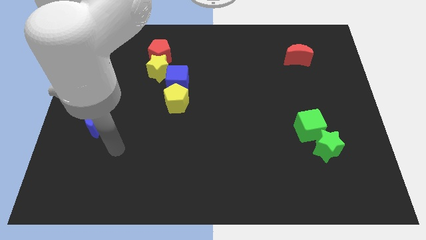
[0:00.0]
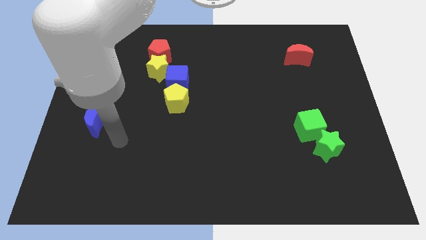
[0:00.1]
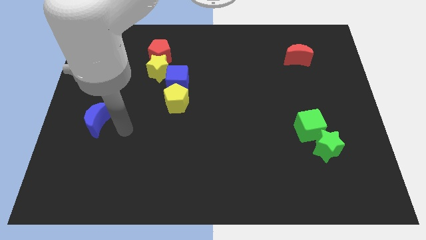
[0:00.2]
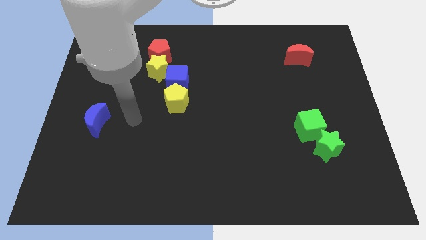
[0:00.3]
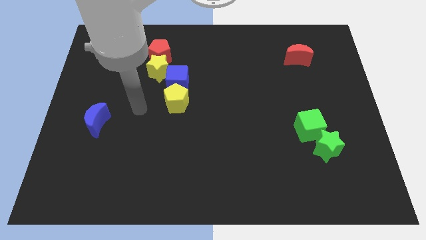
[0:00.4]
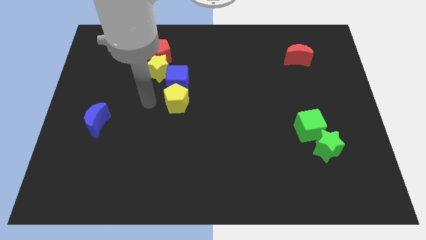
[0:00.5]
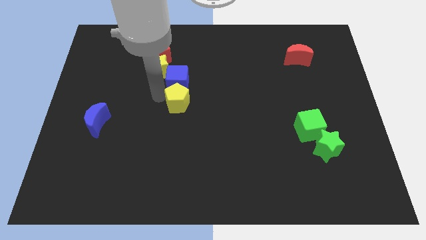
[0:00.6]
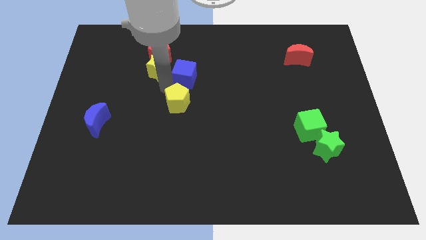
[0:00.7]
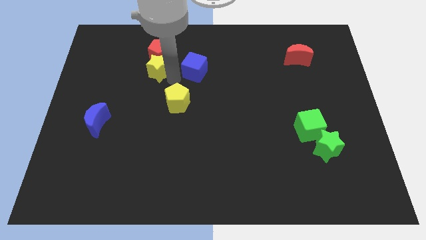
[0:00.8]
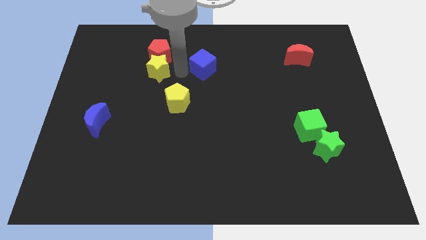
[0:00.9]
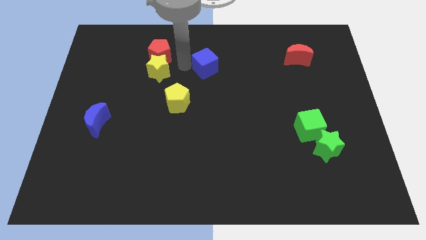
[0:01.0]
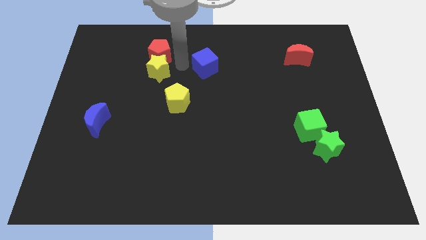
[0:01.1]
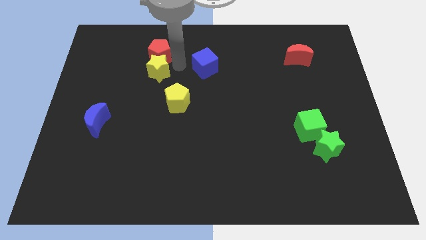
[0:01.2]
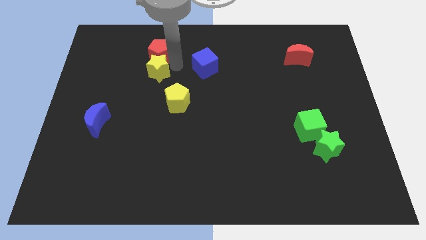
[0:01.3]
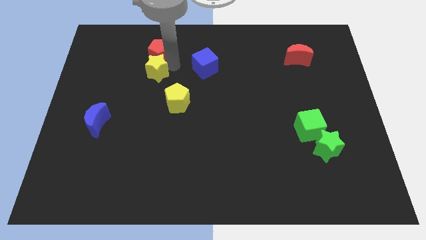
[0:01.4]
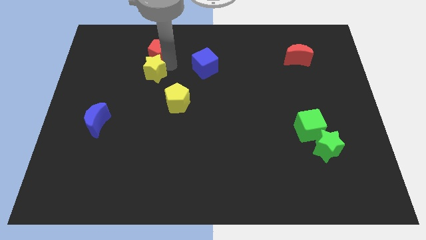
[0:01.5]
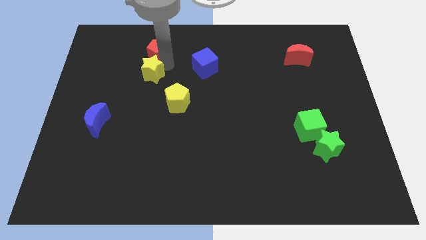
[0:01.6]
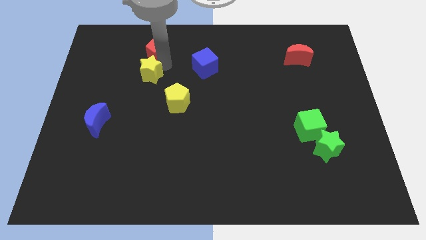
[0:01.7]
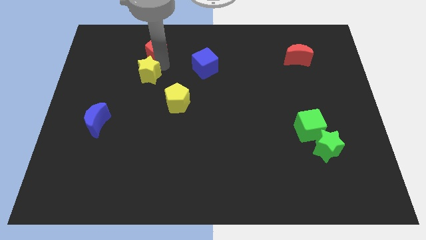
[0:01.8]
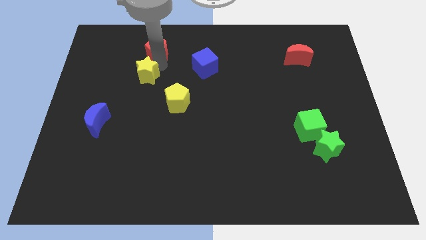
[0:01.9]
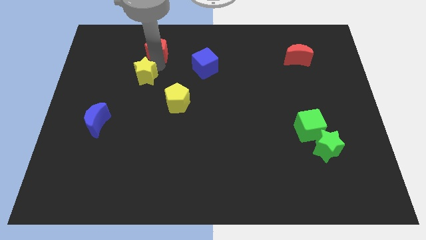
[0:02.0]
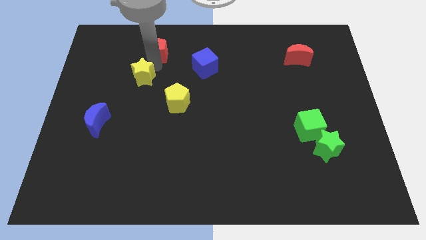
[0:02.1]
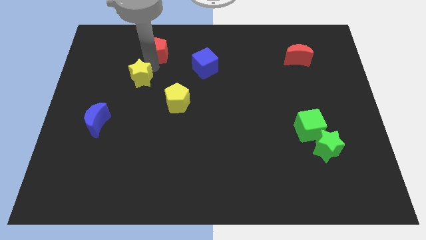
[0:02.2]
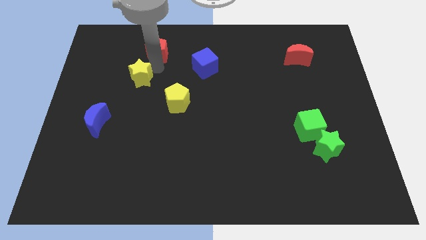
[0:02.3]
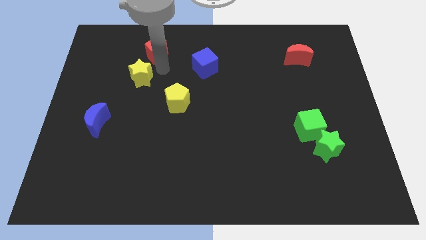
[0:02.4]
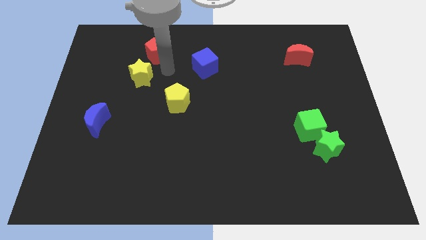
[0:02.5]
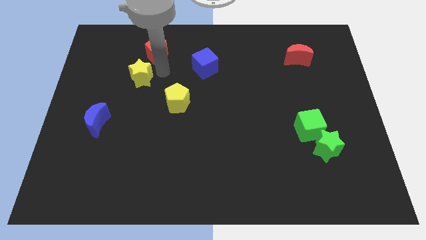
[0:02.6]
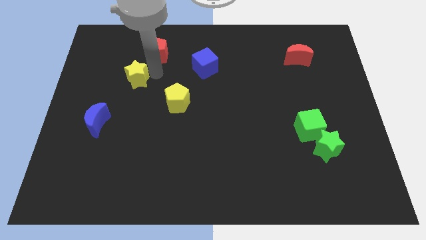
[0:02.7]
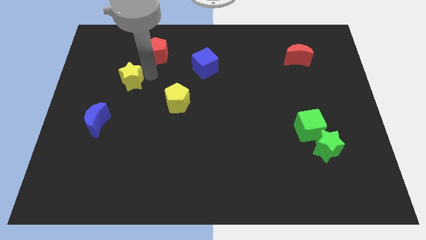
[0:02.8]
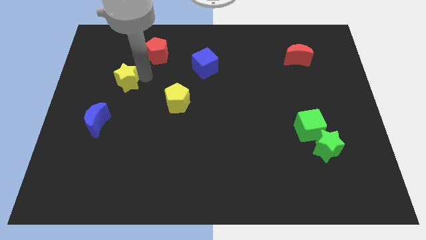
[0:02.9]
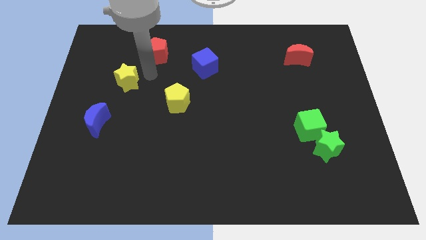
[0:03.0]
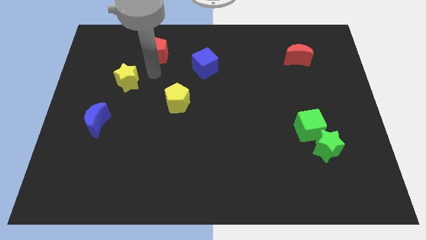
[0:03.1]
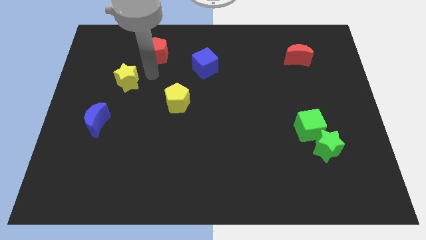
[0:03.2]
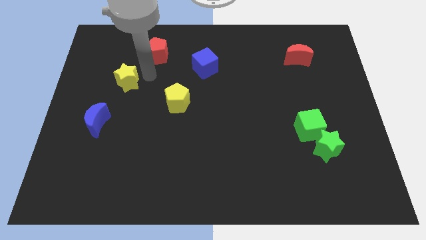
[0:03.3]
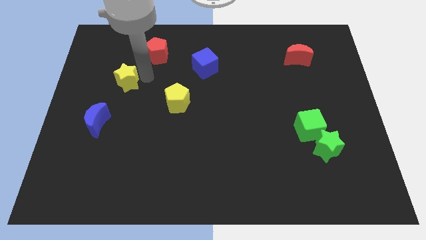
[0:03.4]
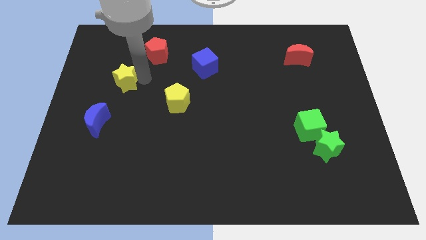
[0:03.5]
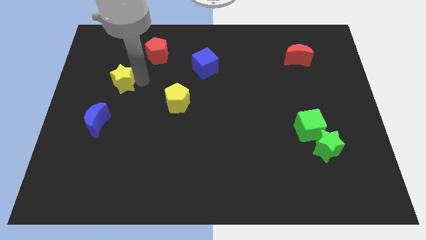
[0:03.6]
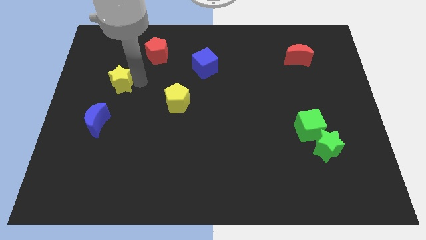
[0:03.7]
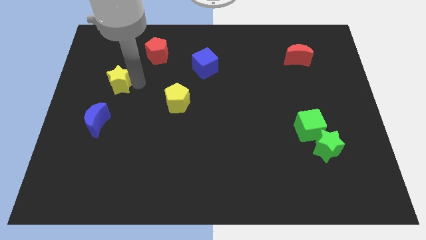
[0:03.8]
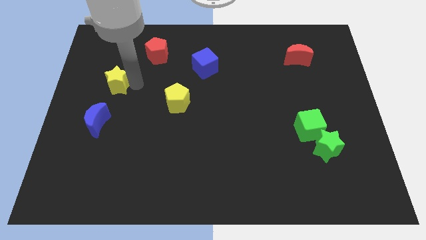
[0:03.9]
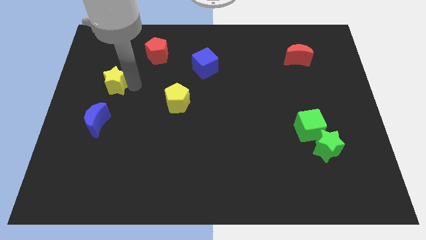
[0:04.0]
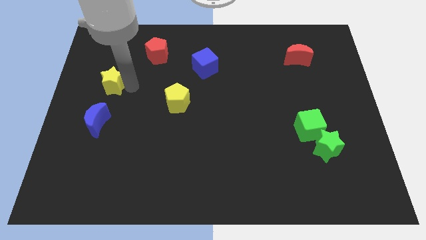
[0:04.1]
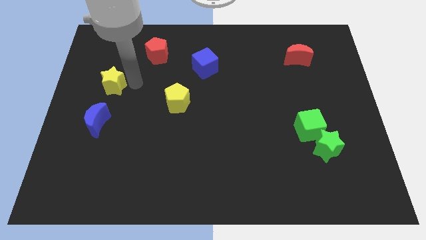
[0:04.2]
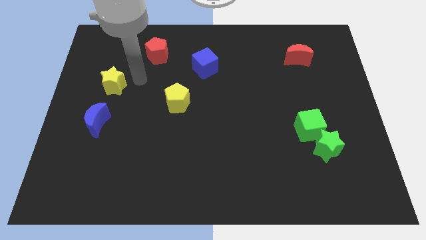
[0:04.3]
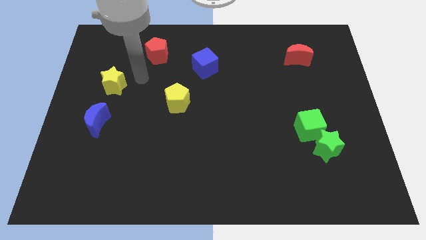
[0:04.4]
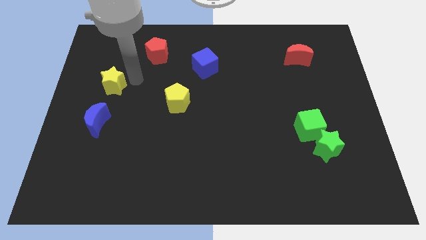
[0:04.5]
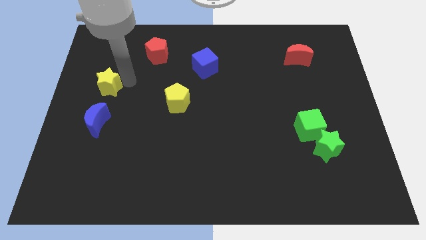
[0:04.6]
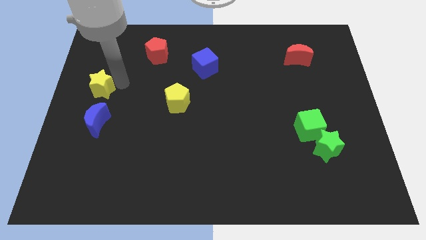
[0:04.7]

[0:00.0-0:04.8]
slide the yellow star to the left side of the board

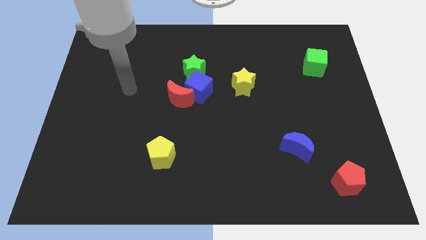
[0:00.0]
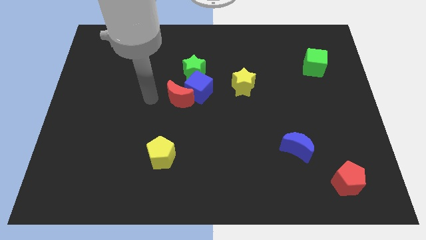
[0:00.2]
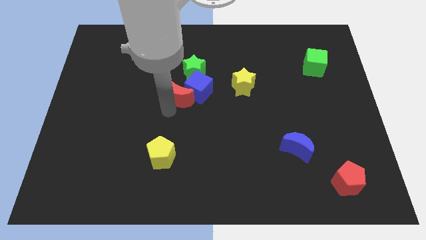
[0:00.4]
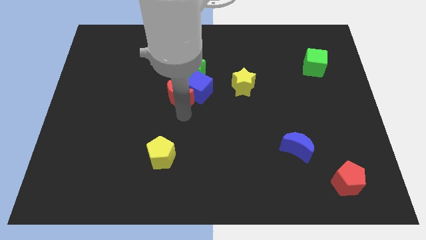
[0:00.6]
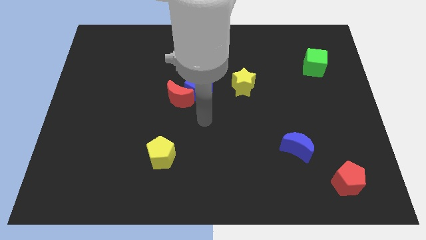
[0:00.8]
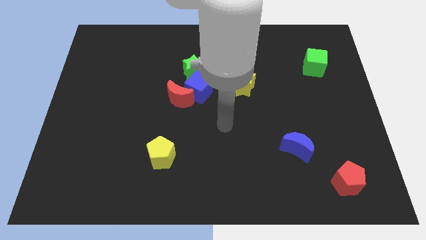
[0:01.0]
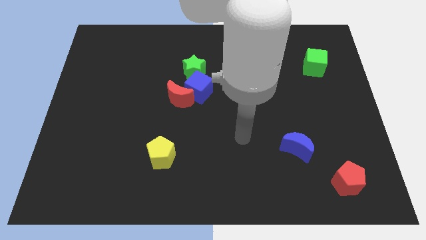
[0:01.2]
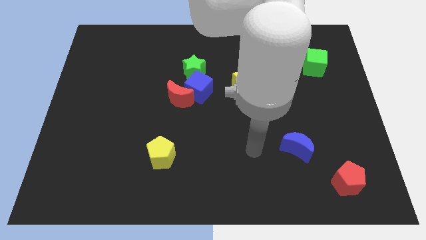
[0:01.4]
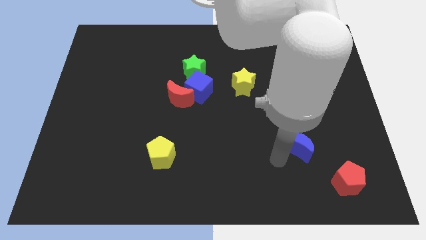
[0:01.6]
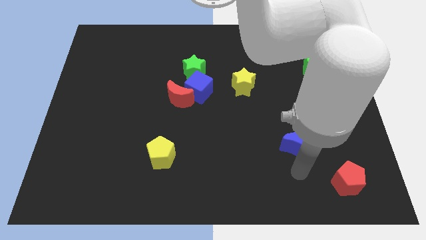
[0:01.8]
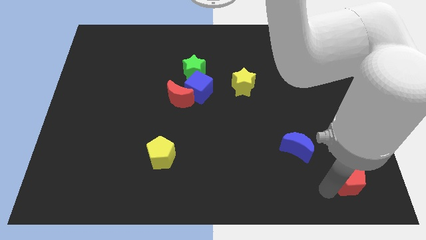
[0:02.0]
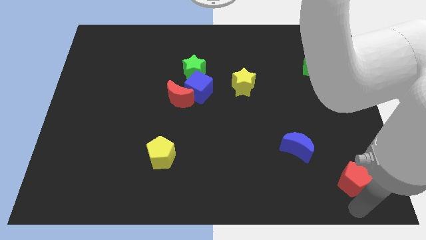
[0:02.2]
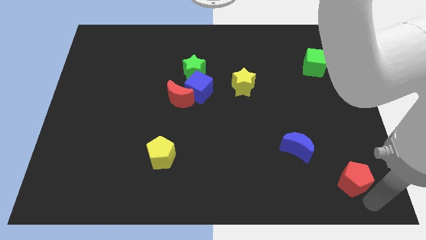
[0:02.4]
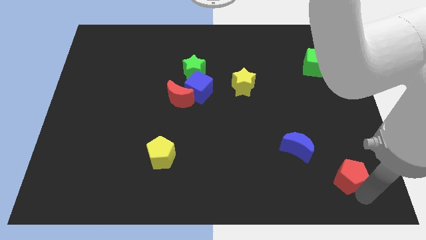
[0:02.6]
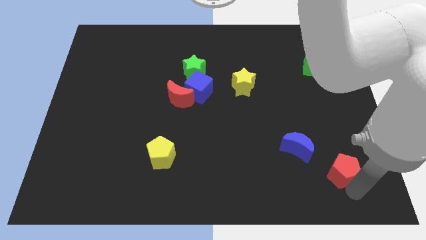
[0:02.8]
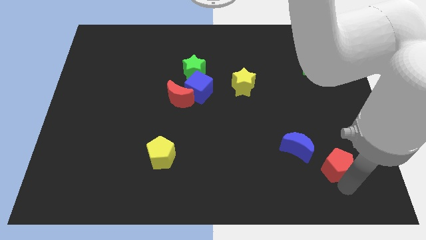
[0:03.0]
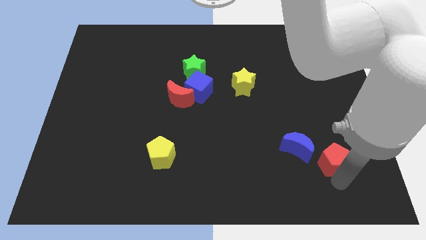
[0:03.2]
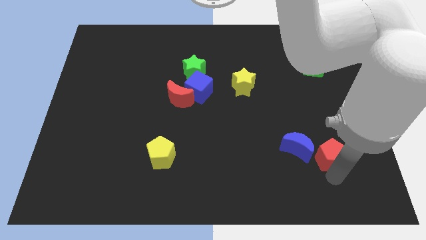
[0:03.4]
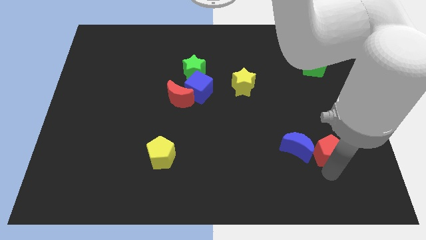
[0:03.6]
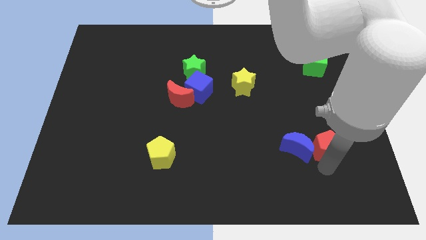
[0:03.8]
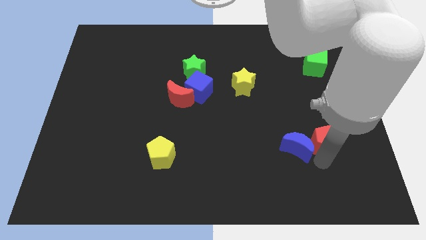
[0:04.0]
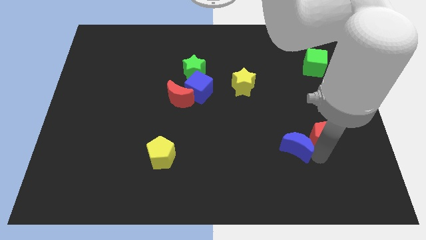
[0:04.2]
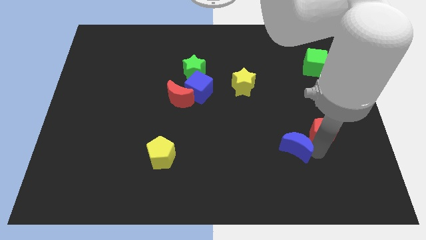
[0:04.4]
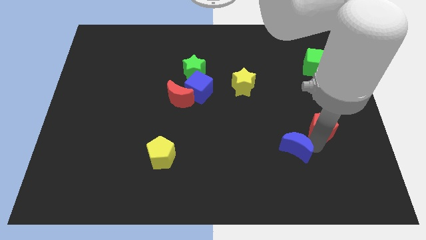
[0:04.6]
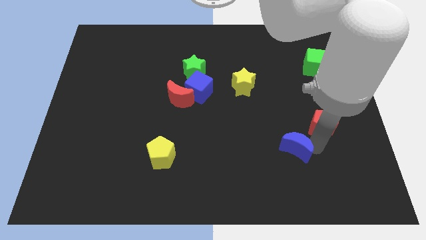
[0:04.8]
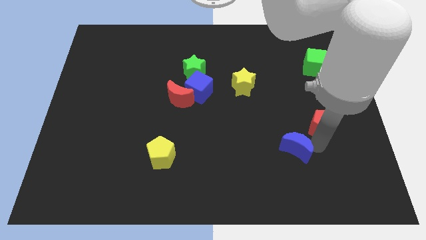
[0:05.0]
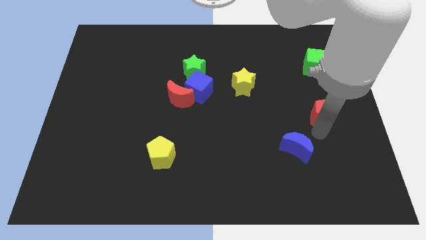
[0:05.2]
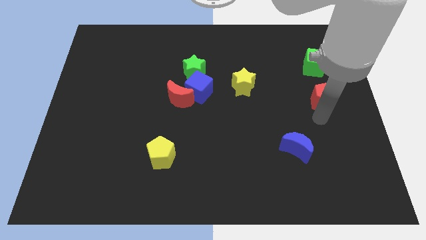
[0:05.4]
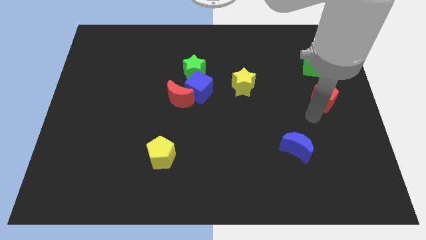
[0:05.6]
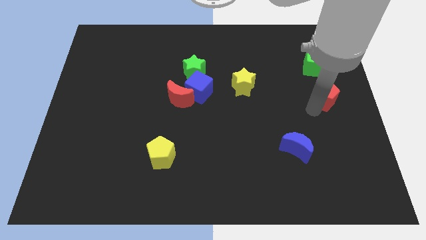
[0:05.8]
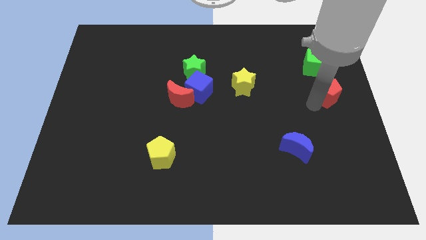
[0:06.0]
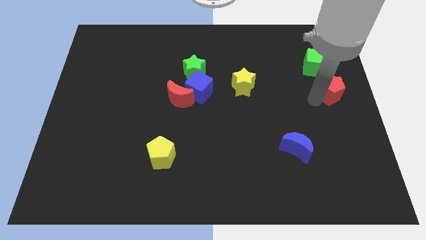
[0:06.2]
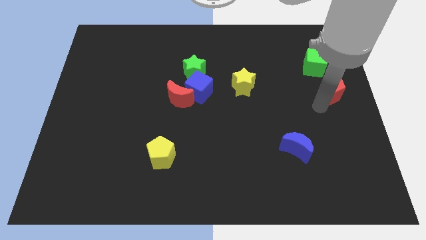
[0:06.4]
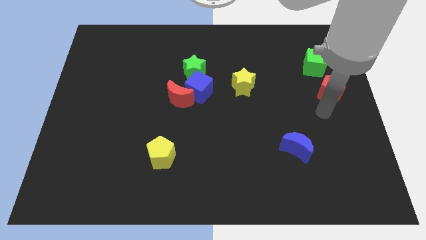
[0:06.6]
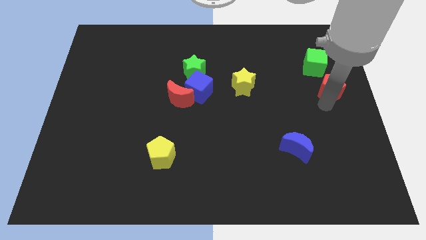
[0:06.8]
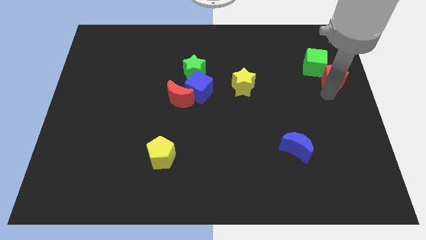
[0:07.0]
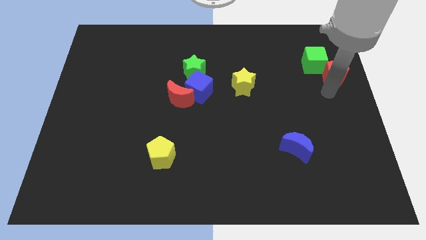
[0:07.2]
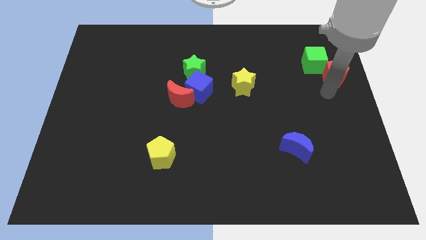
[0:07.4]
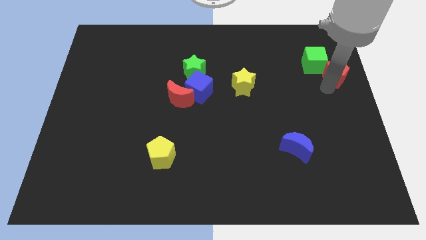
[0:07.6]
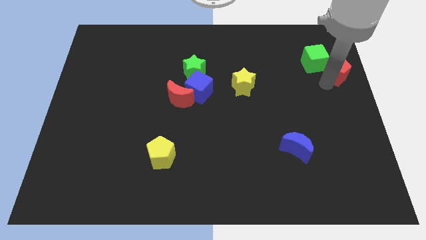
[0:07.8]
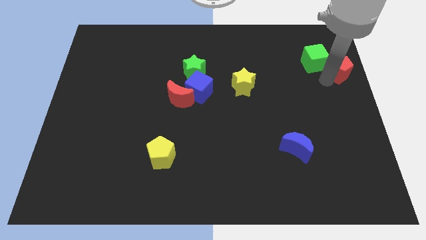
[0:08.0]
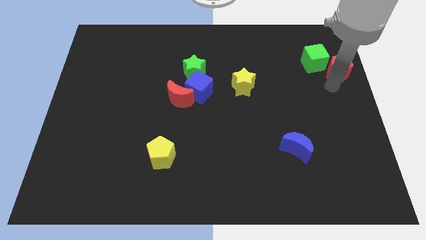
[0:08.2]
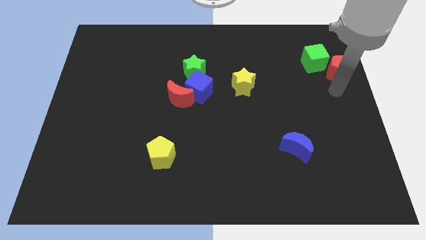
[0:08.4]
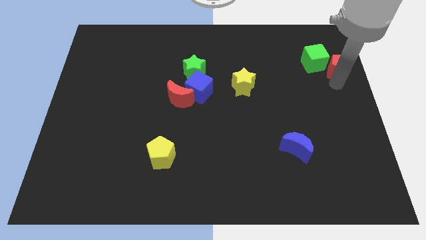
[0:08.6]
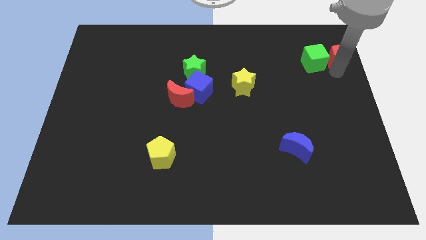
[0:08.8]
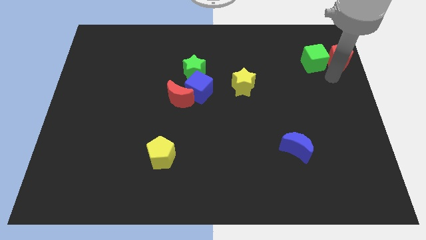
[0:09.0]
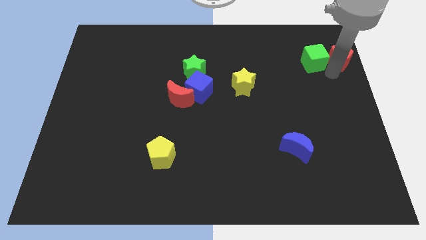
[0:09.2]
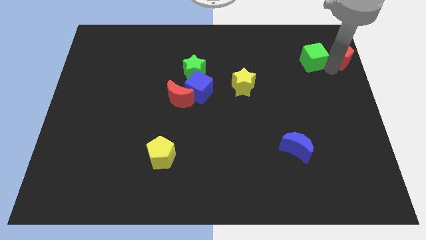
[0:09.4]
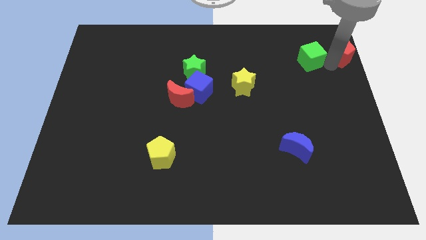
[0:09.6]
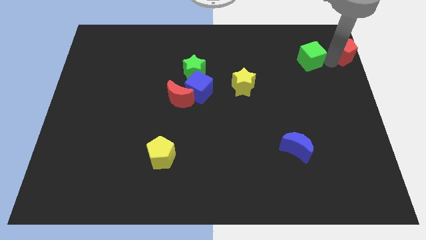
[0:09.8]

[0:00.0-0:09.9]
put the red pentagon to the top right of the board
